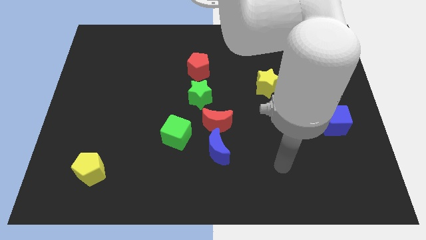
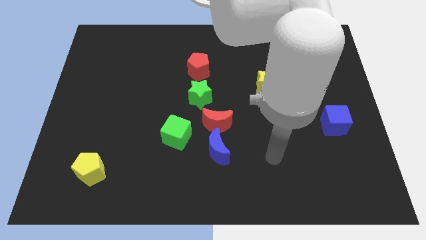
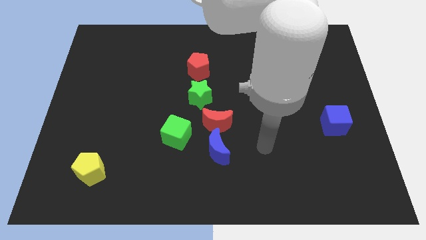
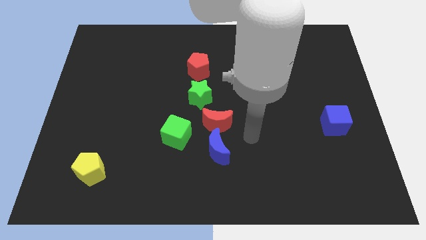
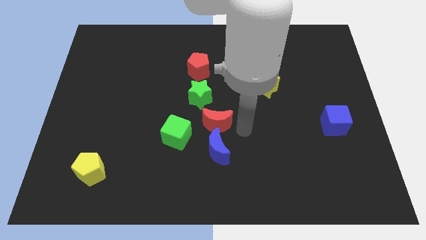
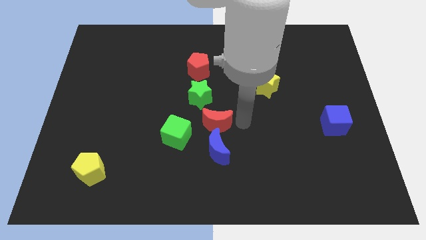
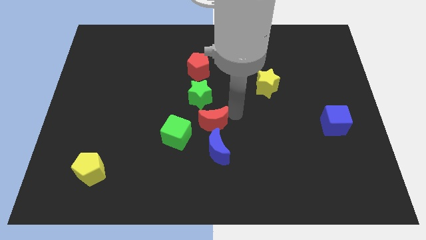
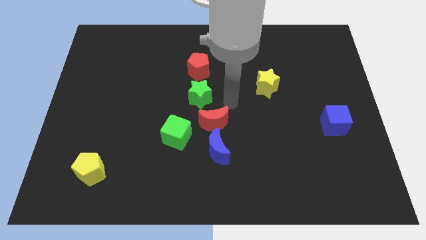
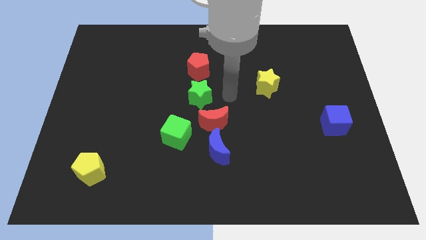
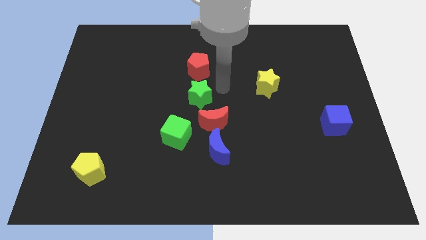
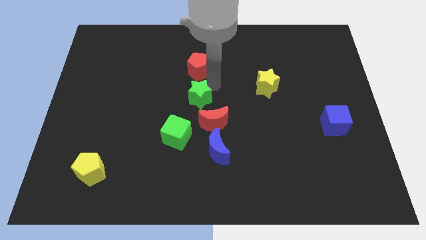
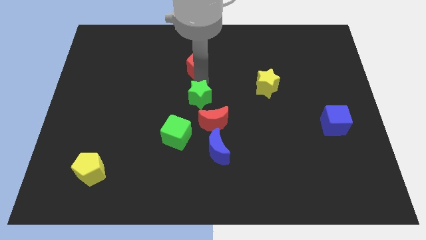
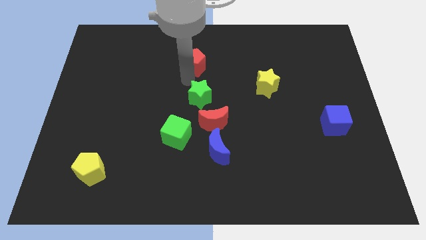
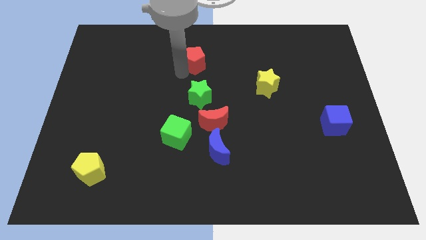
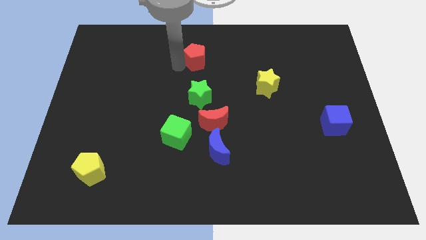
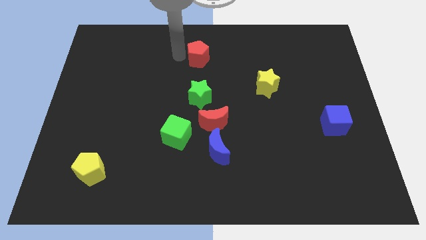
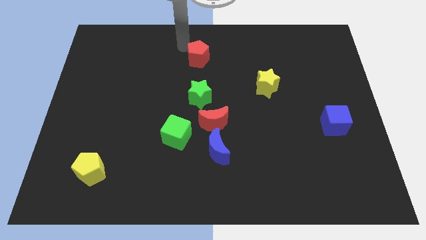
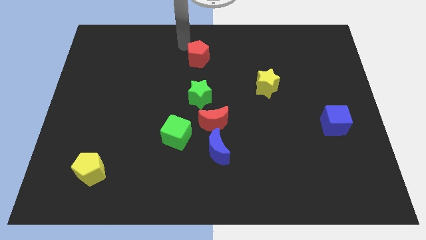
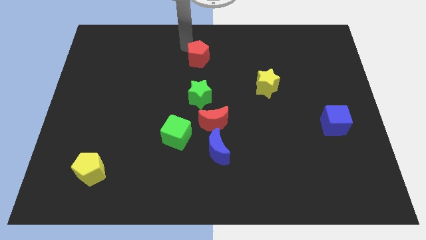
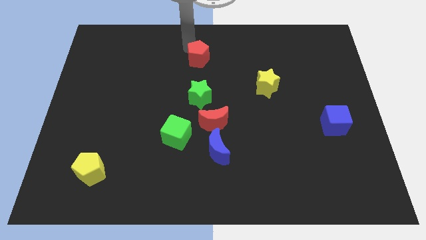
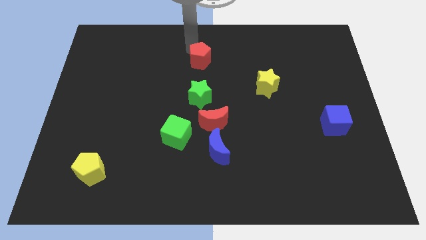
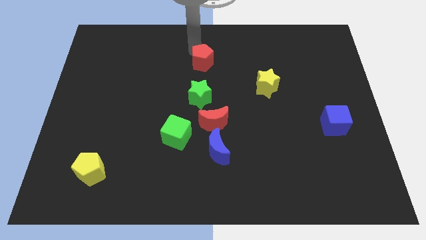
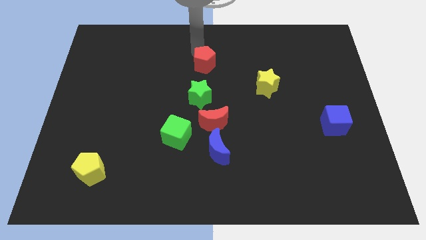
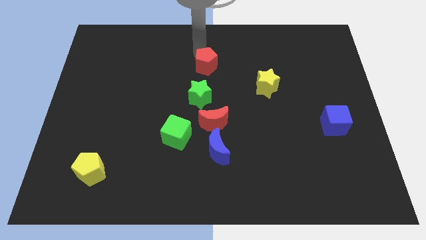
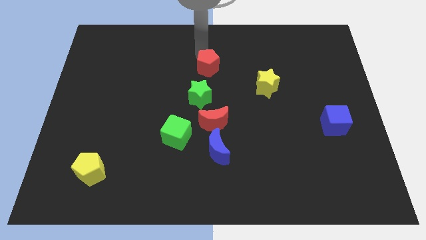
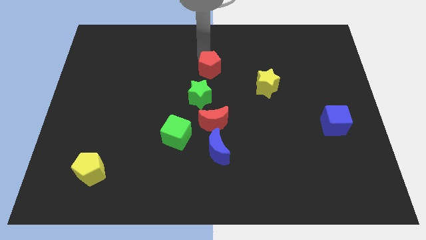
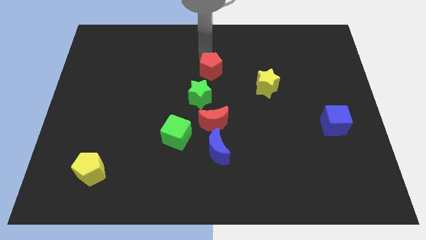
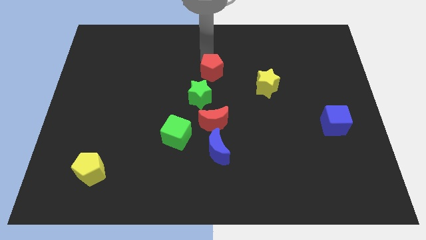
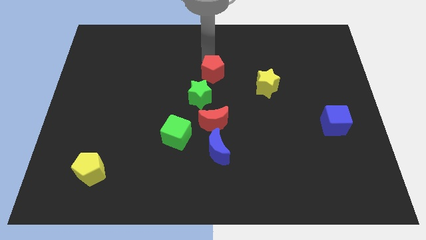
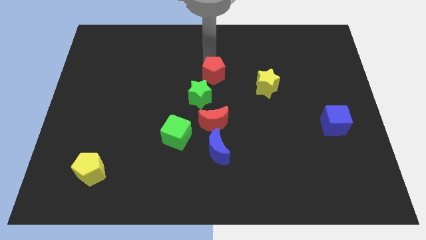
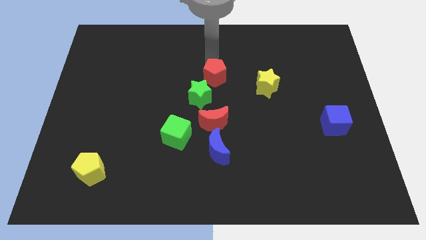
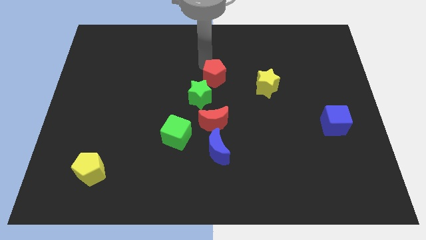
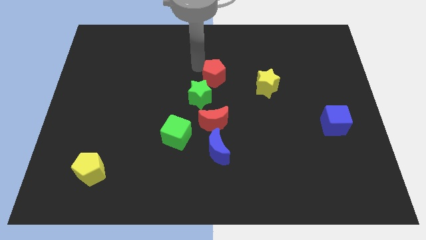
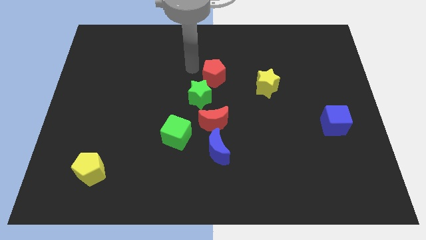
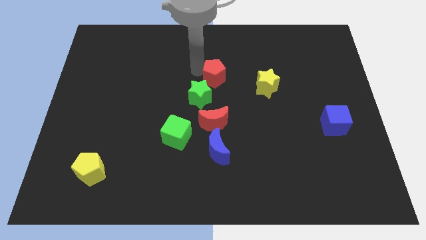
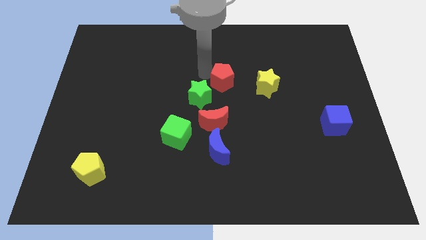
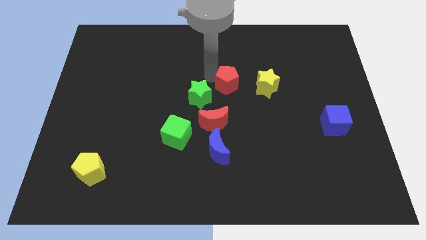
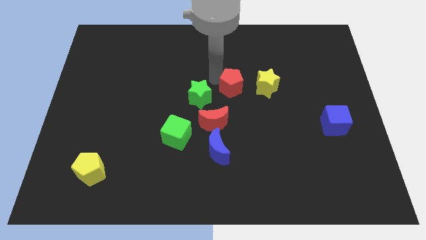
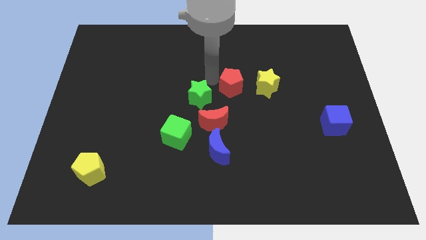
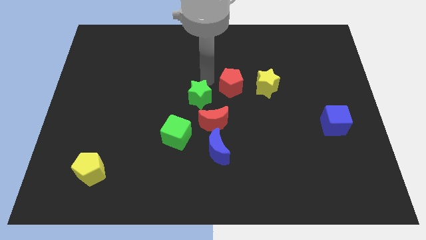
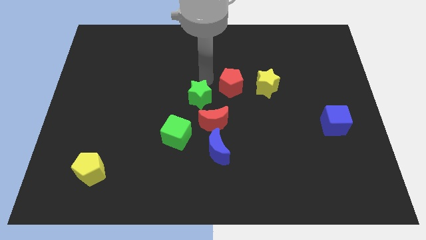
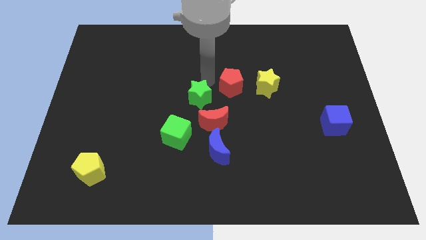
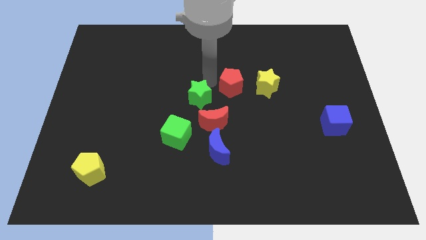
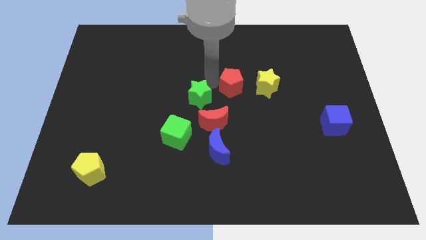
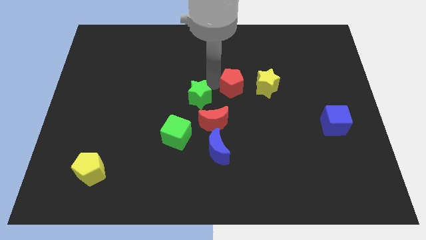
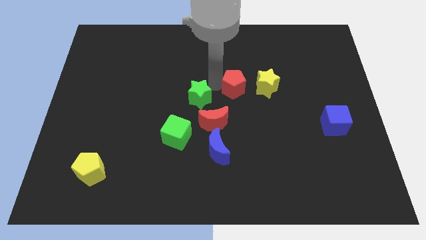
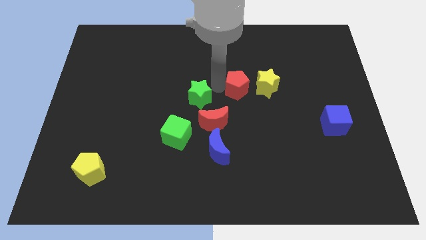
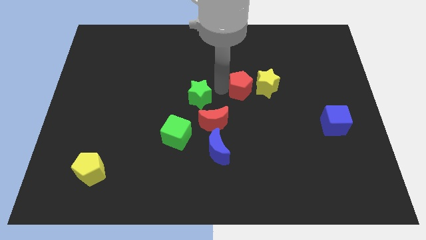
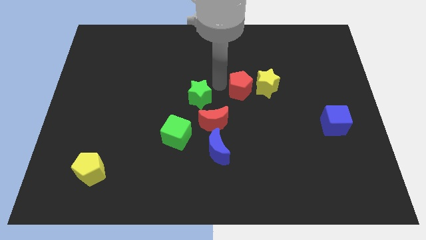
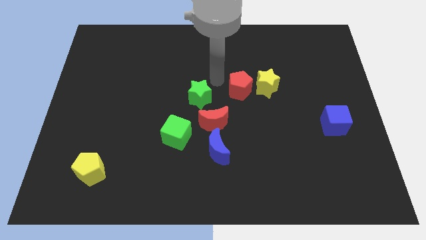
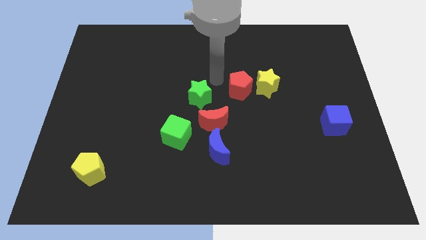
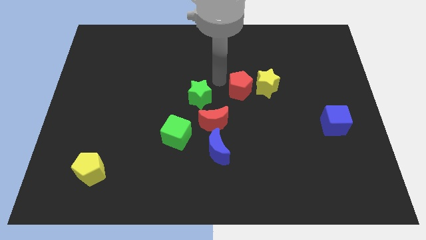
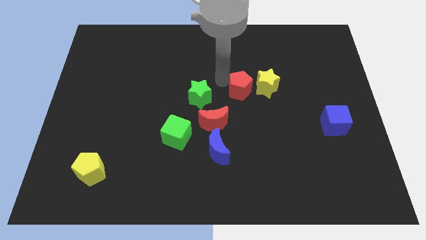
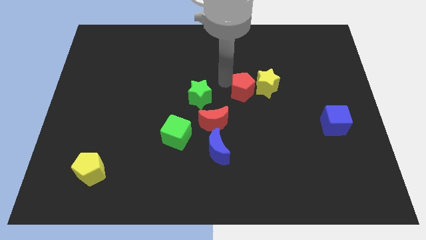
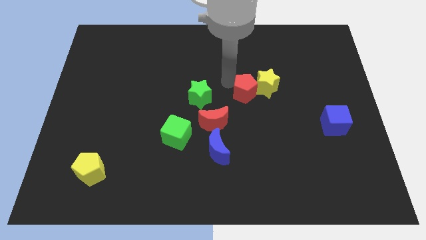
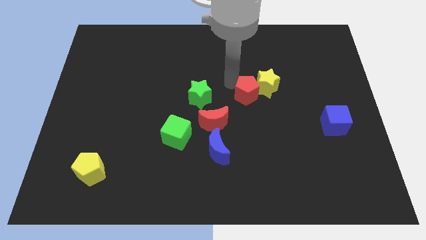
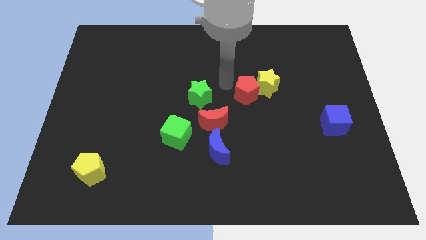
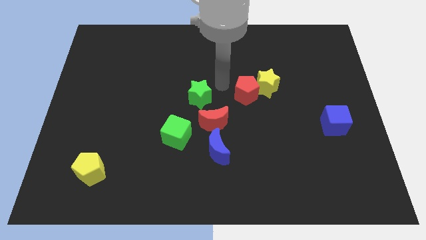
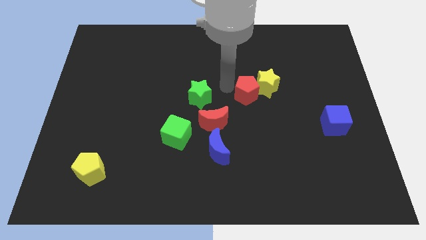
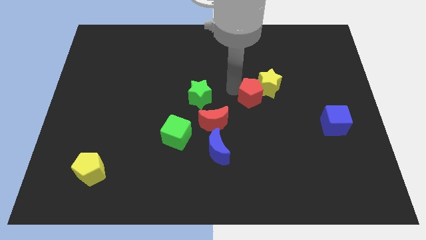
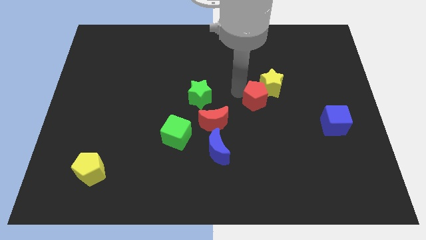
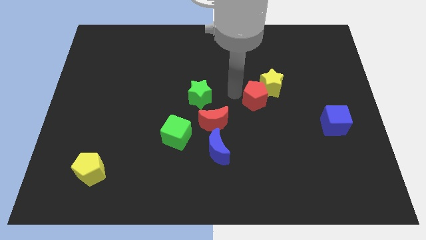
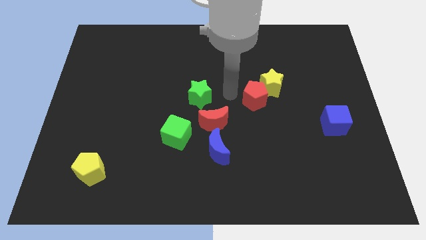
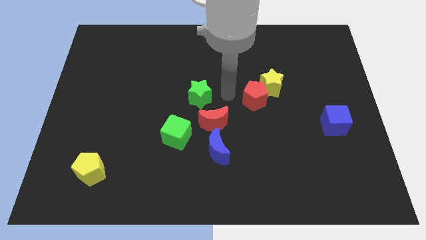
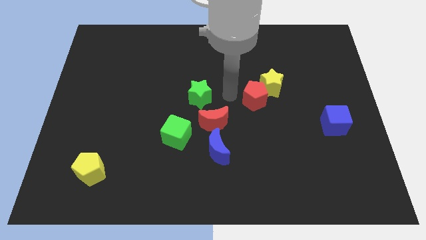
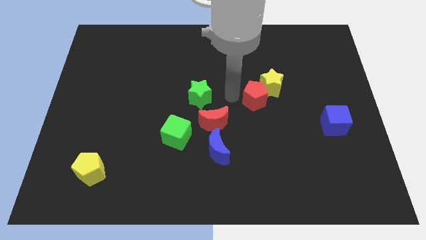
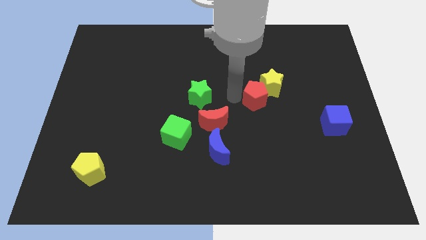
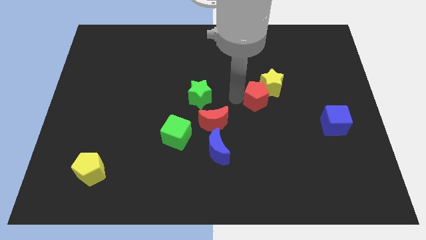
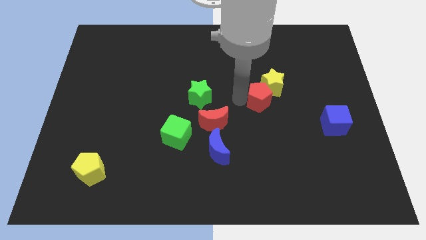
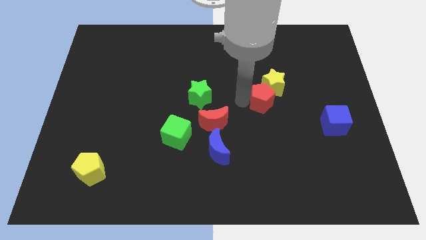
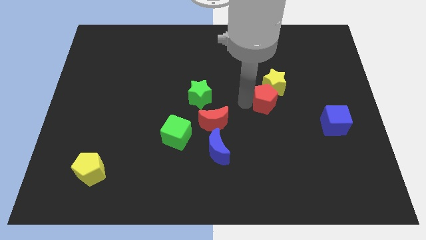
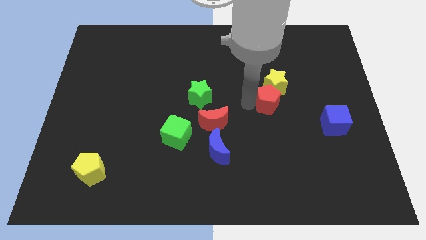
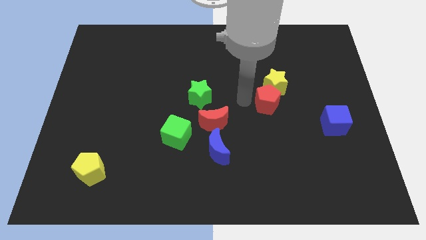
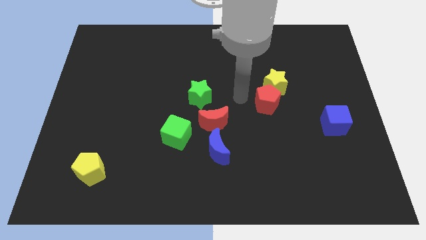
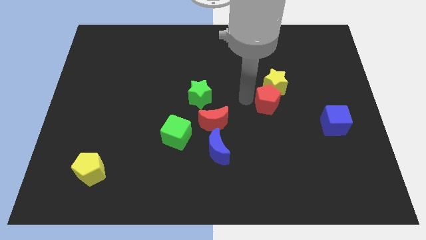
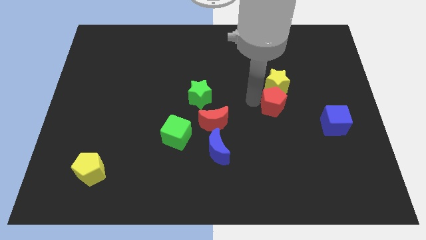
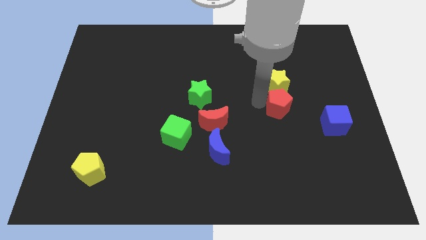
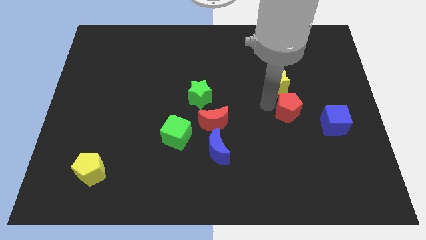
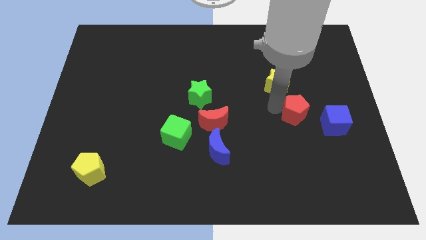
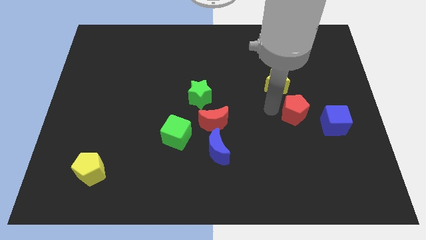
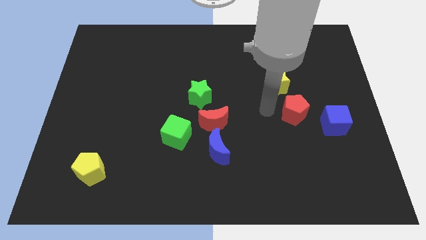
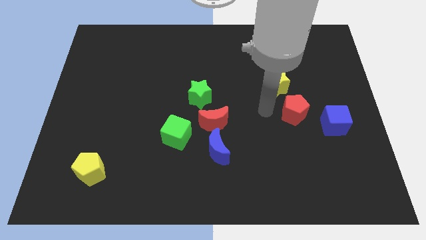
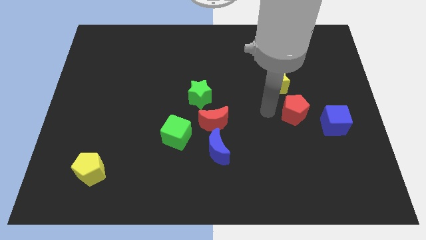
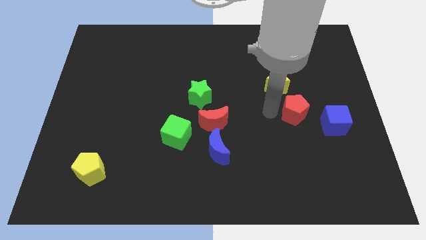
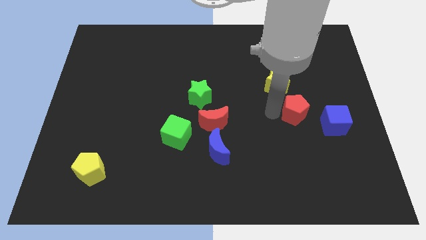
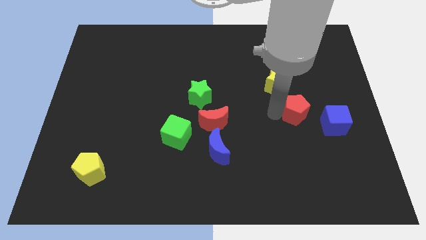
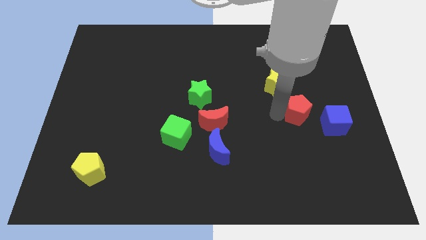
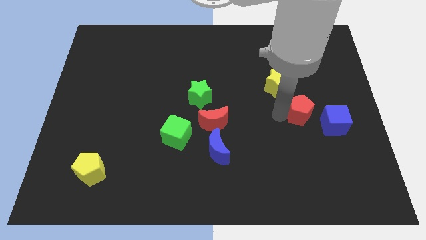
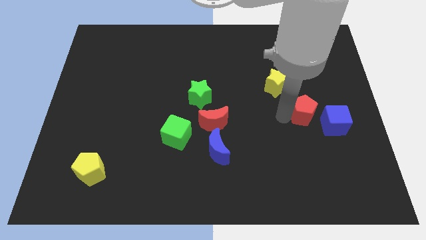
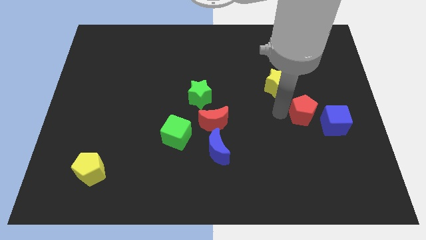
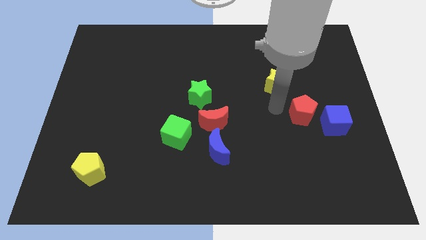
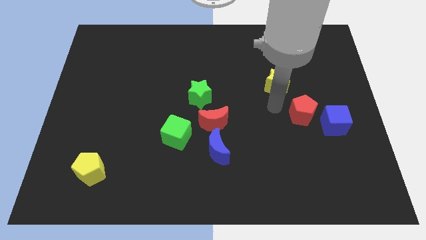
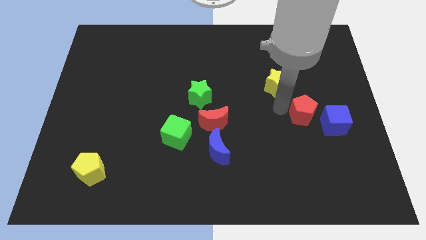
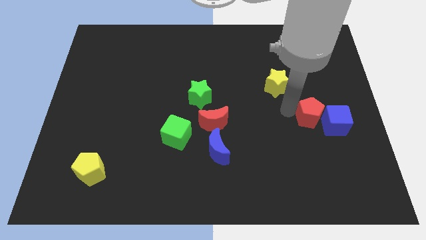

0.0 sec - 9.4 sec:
move the red pentagon towards the blue cube
